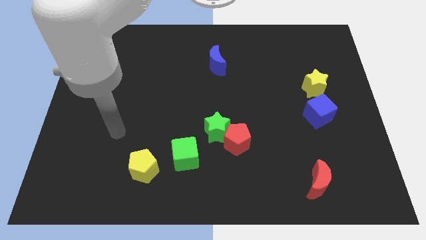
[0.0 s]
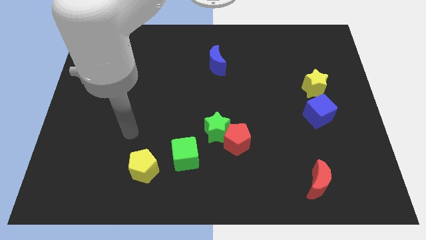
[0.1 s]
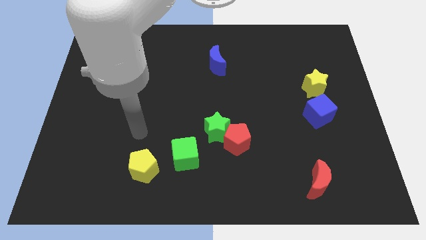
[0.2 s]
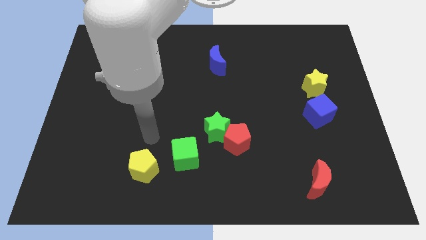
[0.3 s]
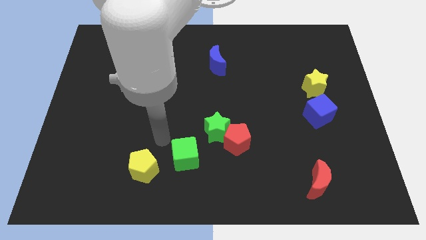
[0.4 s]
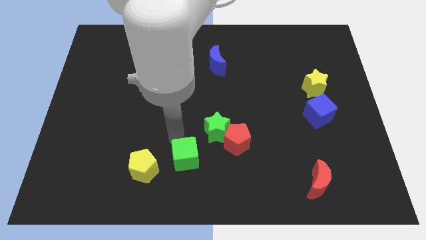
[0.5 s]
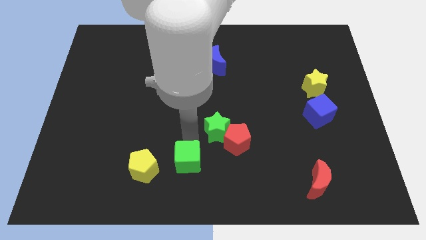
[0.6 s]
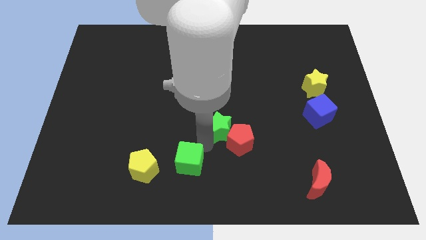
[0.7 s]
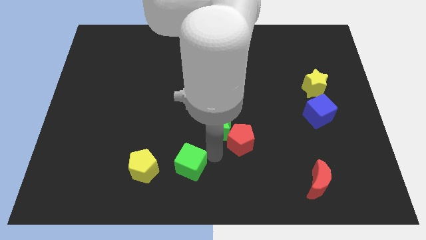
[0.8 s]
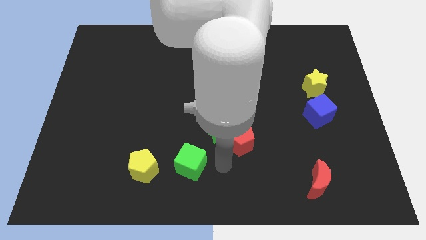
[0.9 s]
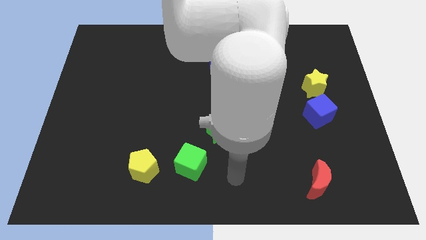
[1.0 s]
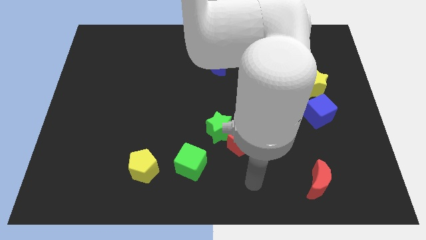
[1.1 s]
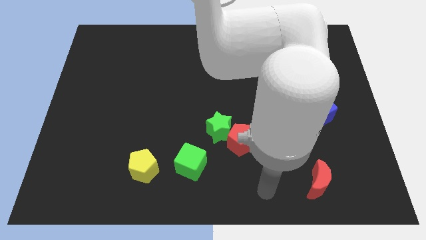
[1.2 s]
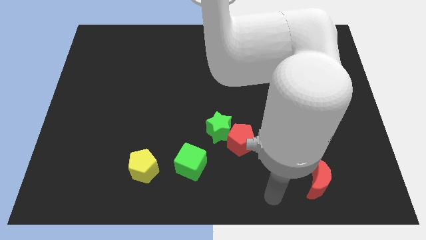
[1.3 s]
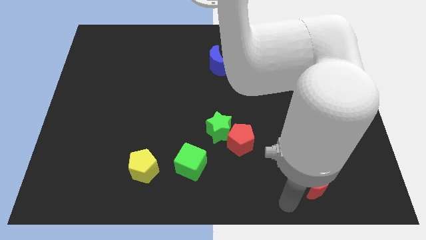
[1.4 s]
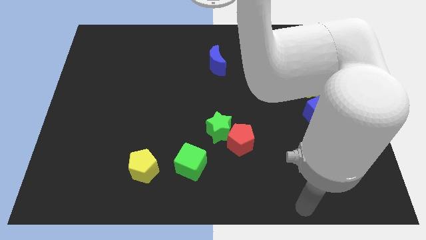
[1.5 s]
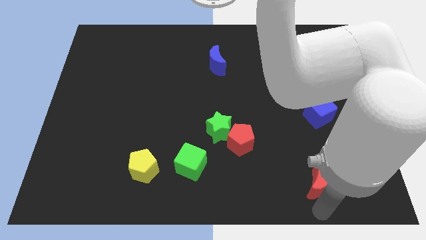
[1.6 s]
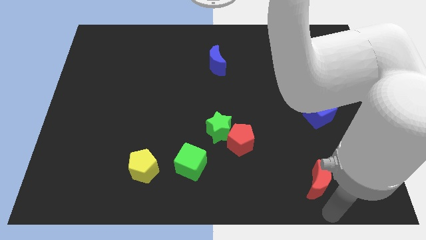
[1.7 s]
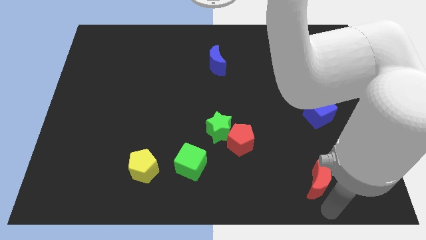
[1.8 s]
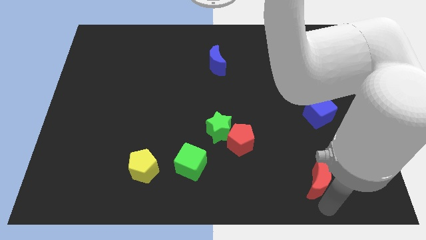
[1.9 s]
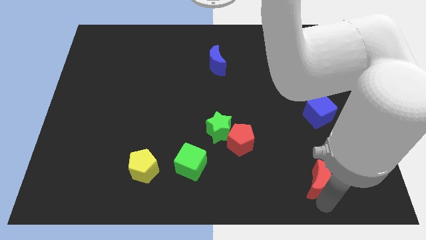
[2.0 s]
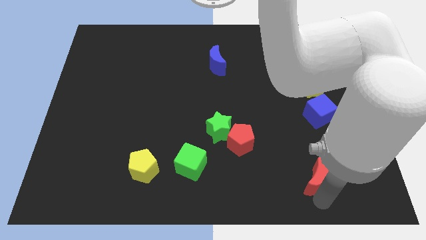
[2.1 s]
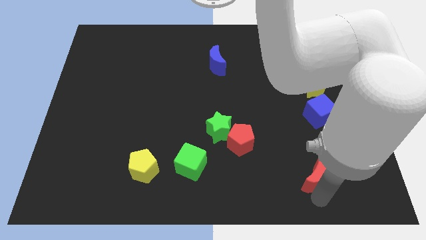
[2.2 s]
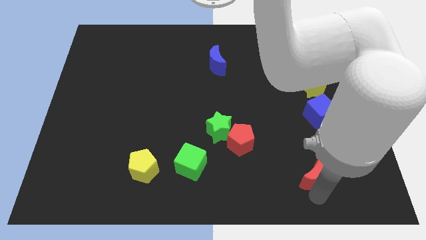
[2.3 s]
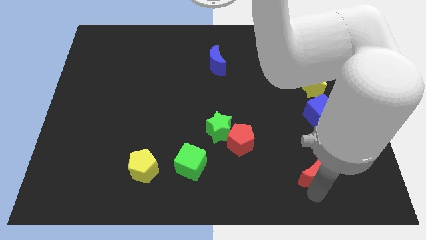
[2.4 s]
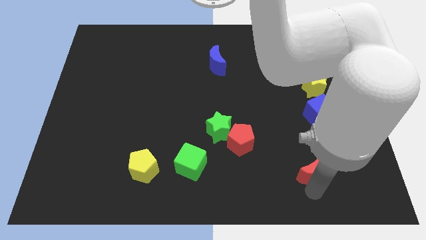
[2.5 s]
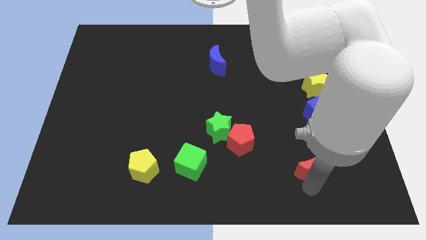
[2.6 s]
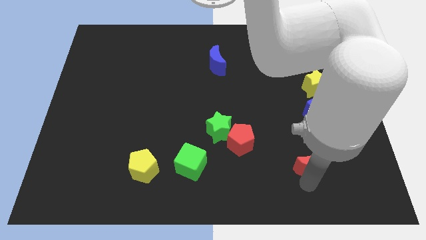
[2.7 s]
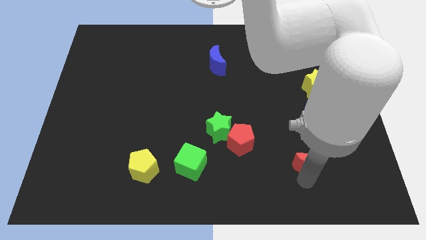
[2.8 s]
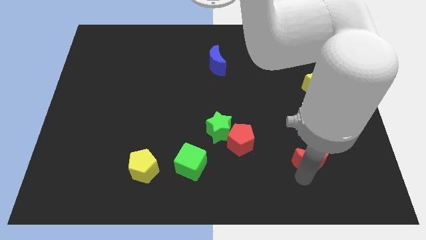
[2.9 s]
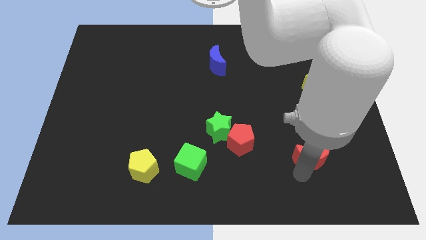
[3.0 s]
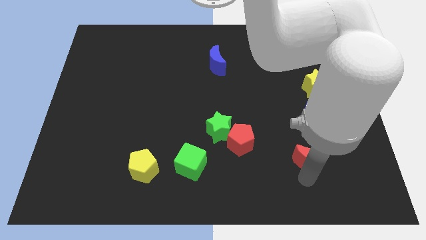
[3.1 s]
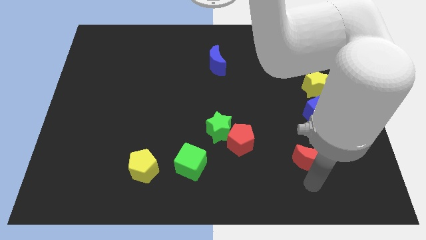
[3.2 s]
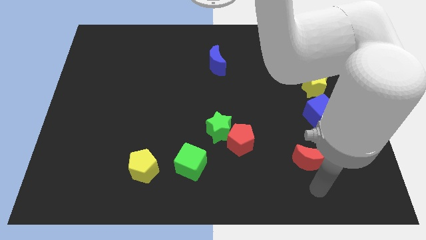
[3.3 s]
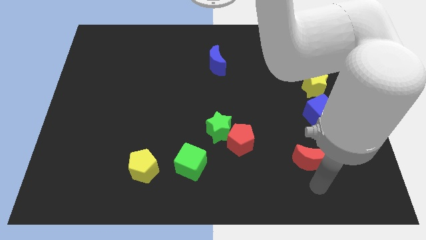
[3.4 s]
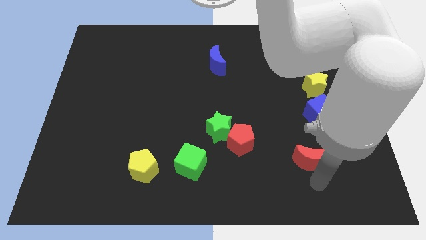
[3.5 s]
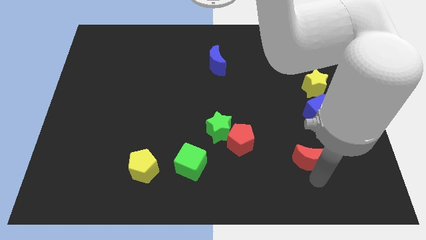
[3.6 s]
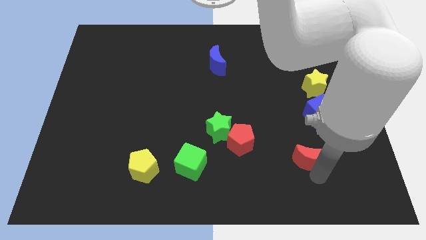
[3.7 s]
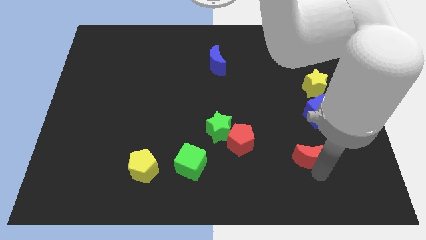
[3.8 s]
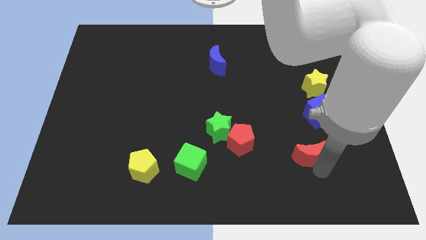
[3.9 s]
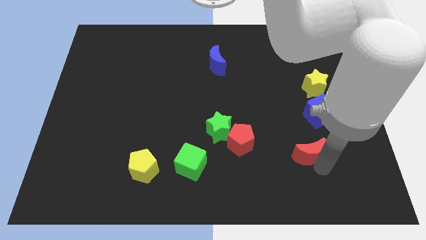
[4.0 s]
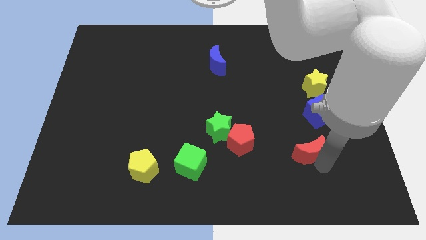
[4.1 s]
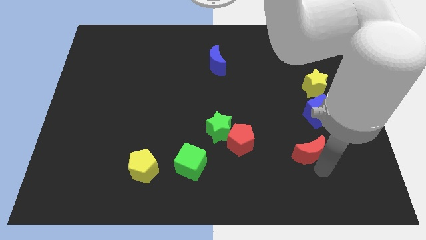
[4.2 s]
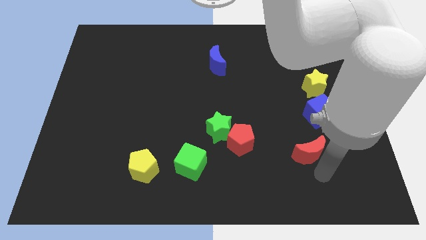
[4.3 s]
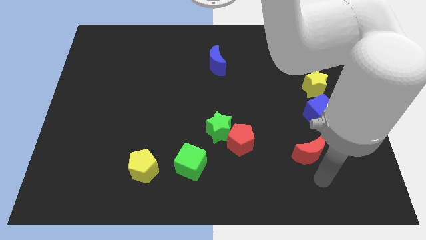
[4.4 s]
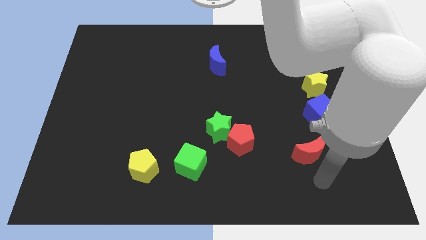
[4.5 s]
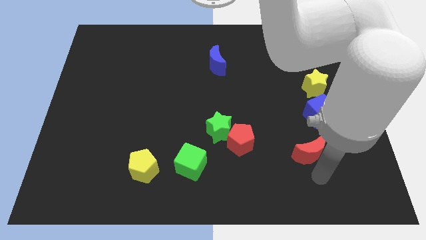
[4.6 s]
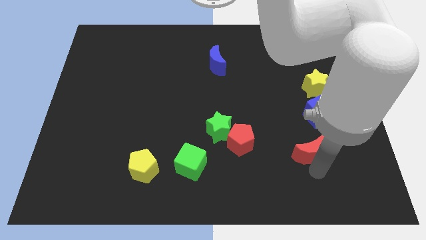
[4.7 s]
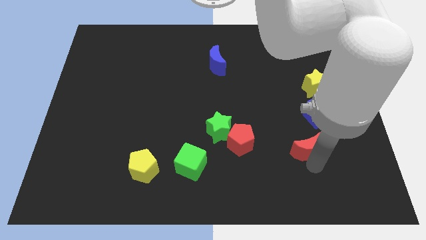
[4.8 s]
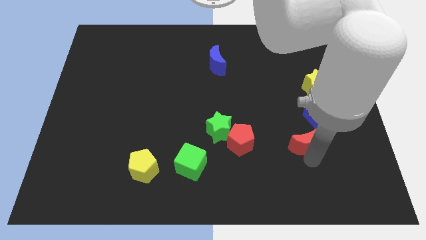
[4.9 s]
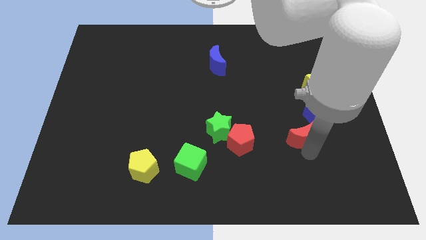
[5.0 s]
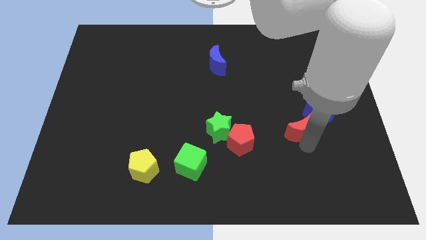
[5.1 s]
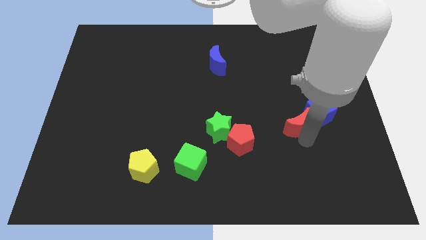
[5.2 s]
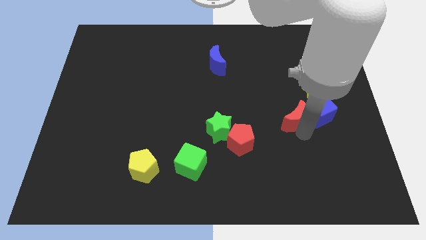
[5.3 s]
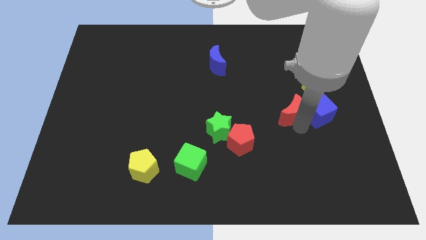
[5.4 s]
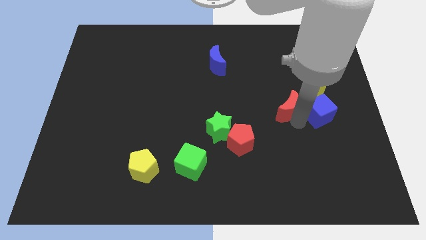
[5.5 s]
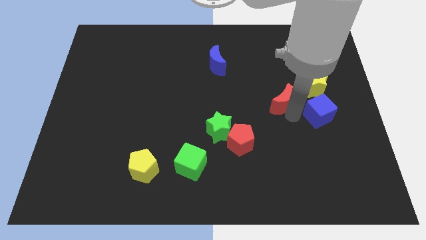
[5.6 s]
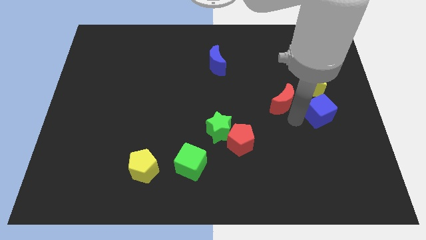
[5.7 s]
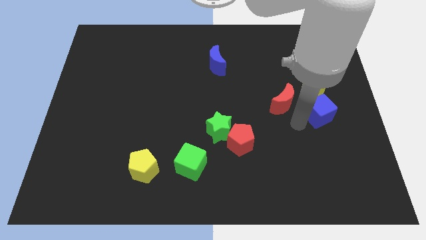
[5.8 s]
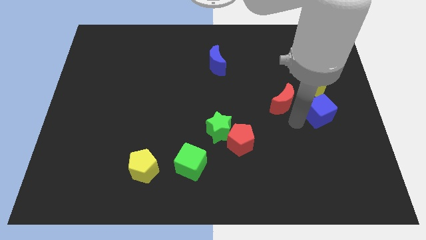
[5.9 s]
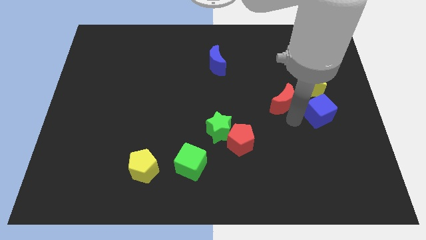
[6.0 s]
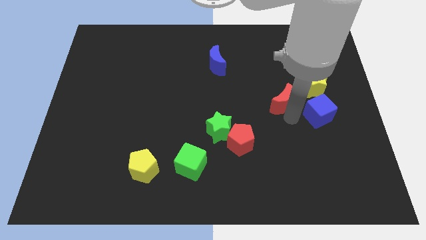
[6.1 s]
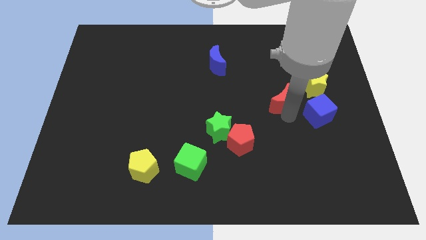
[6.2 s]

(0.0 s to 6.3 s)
slide the red moon left of the yellow star

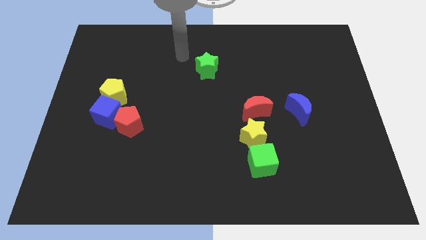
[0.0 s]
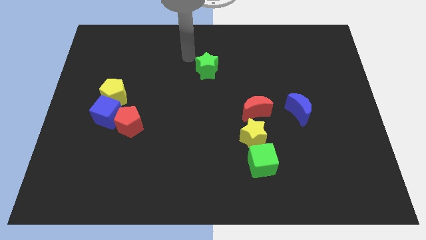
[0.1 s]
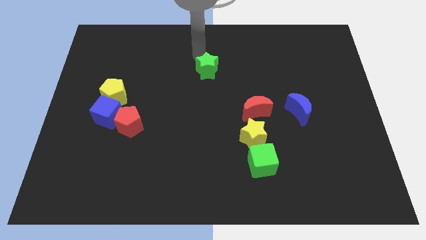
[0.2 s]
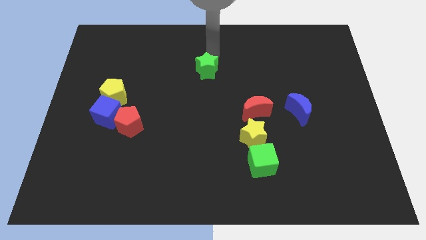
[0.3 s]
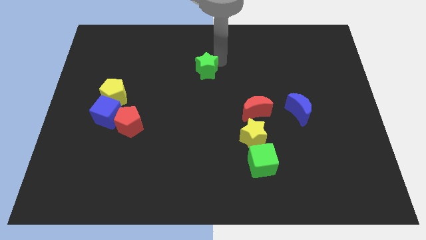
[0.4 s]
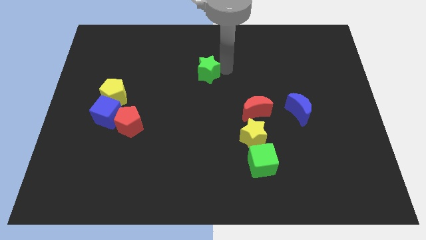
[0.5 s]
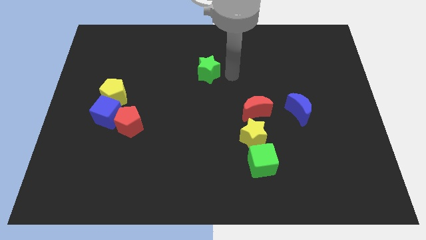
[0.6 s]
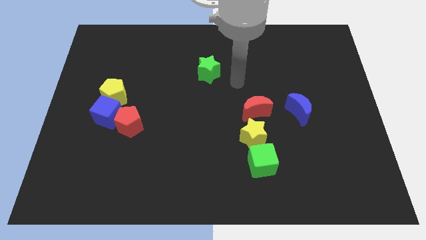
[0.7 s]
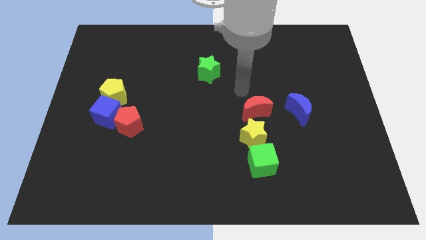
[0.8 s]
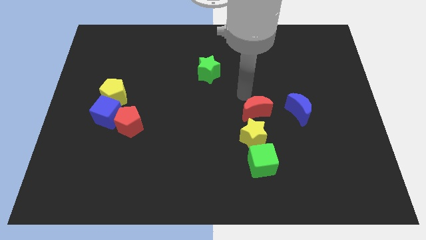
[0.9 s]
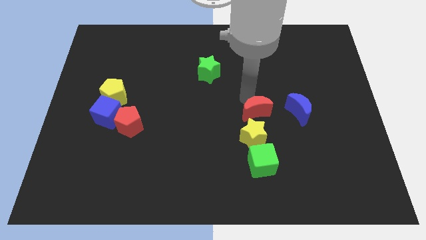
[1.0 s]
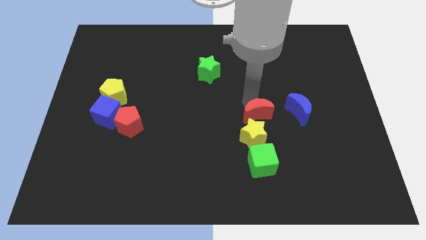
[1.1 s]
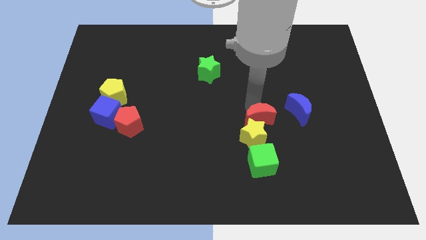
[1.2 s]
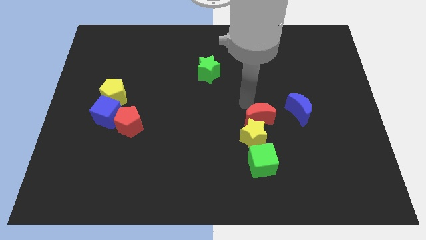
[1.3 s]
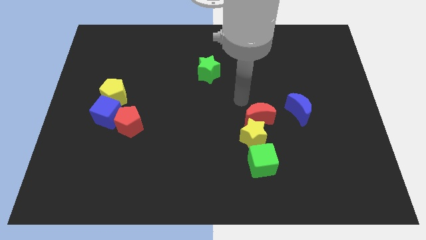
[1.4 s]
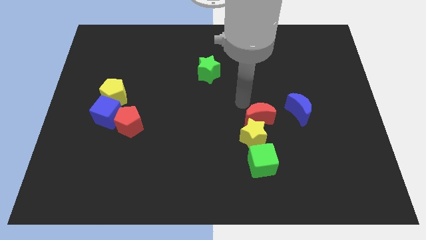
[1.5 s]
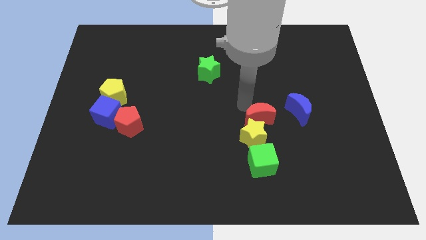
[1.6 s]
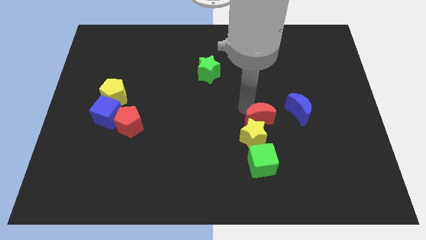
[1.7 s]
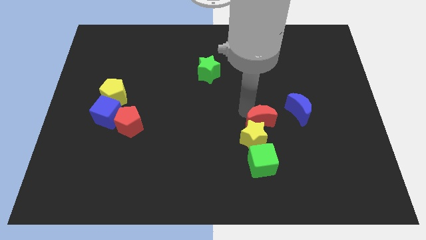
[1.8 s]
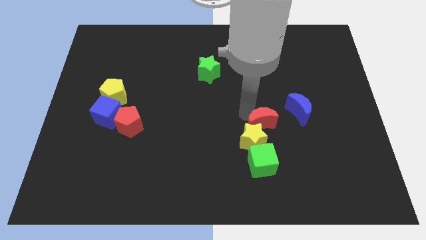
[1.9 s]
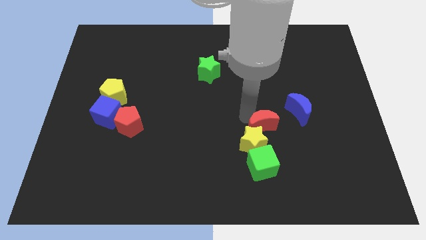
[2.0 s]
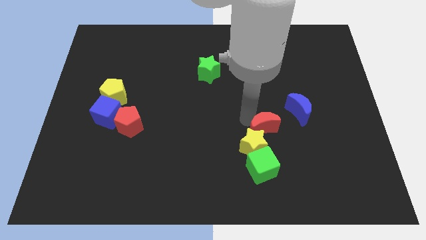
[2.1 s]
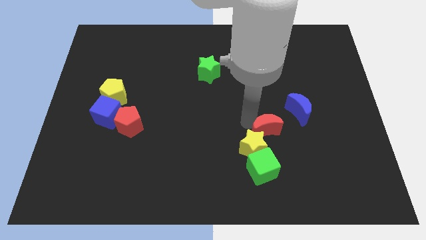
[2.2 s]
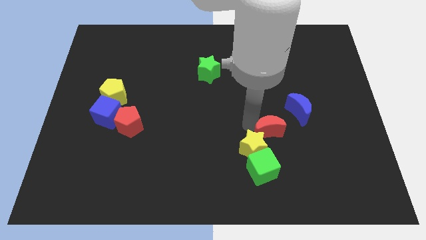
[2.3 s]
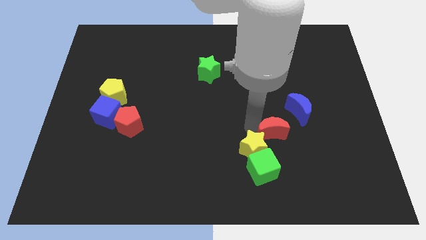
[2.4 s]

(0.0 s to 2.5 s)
push the red moon diagonally up and to the right of the green cube
